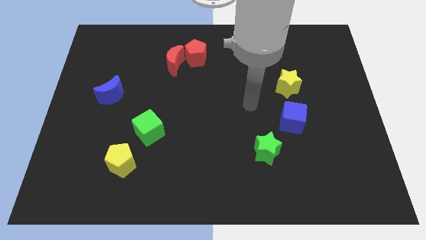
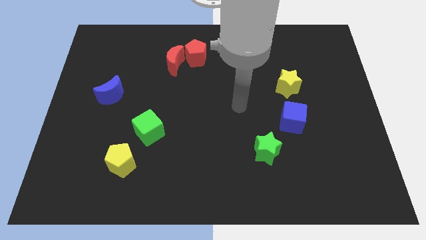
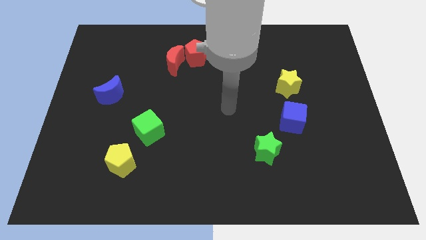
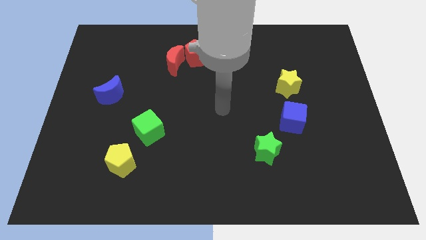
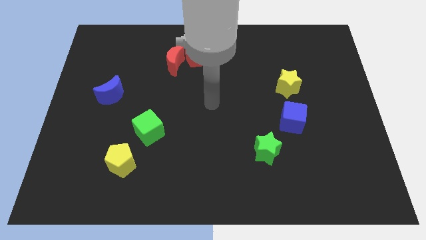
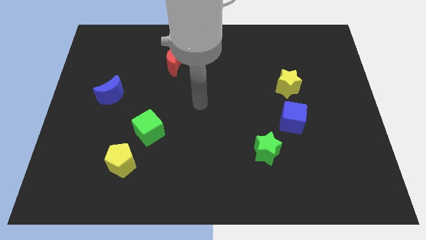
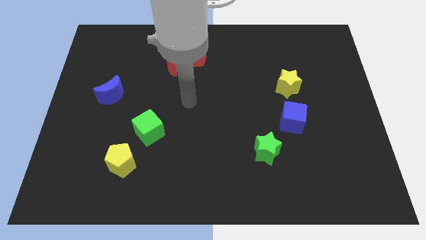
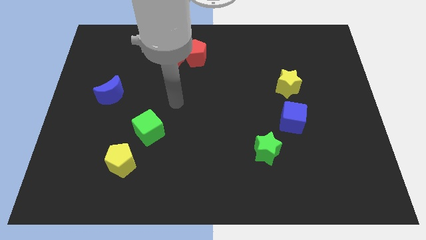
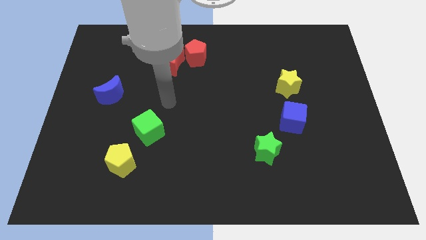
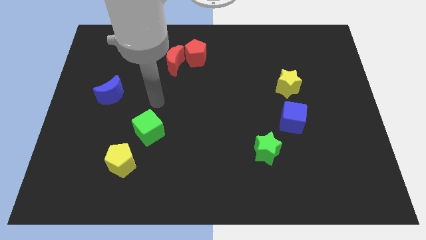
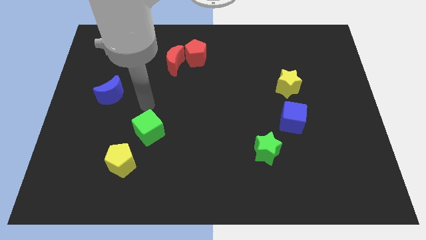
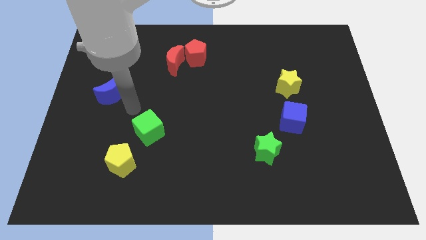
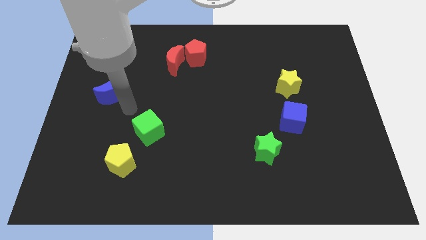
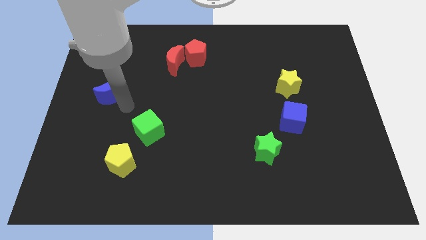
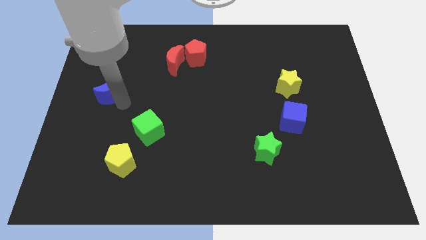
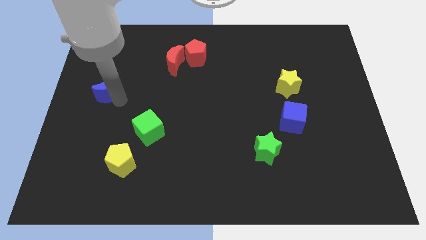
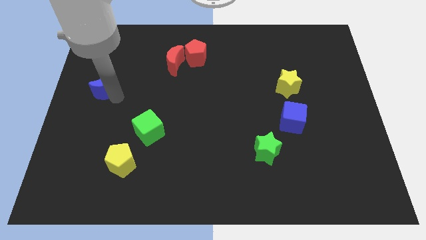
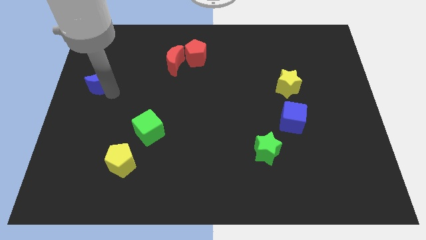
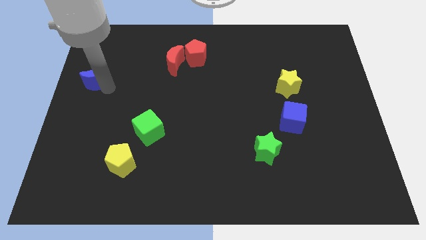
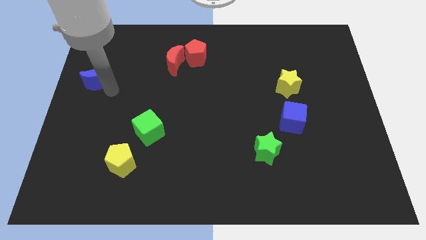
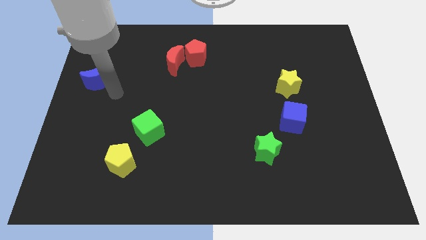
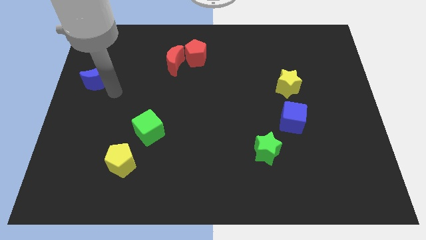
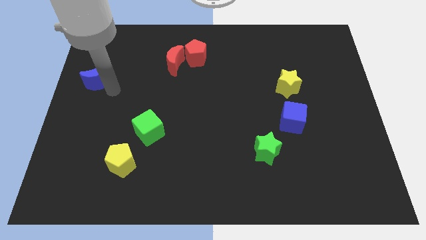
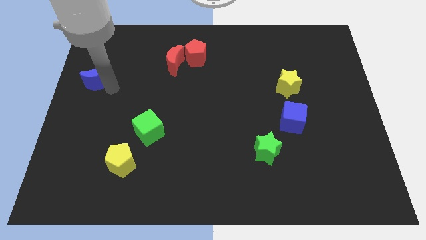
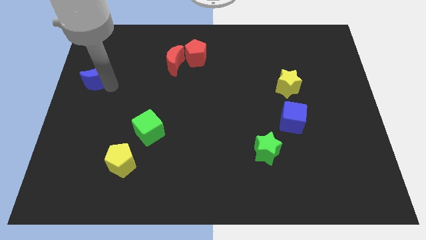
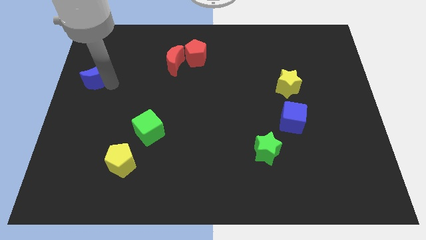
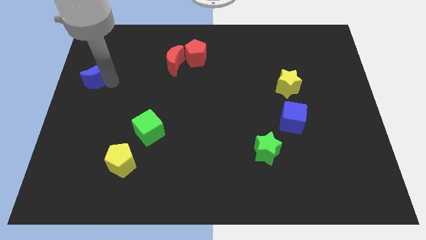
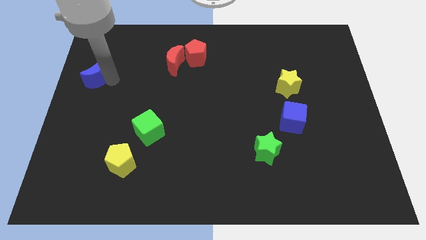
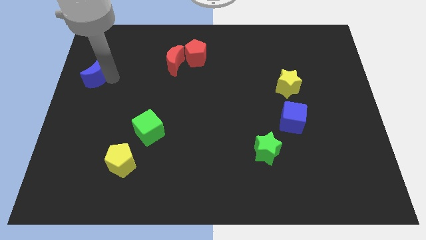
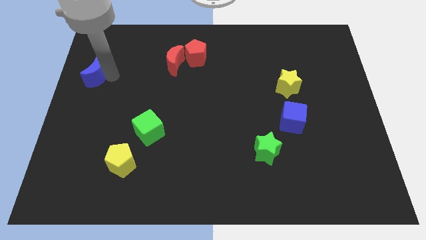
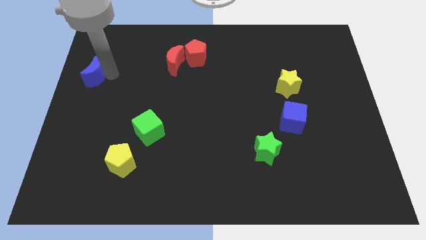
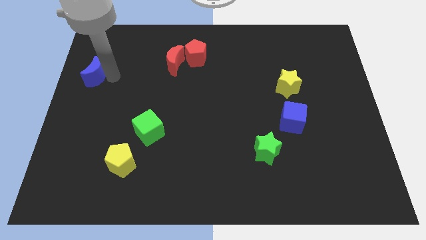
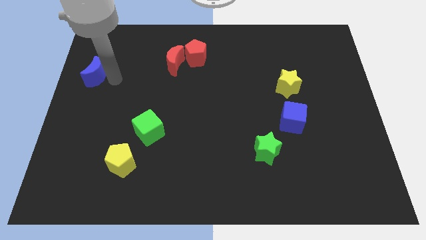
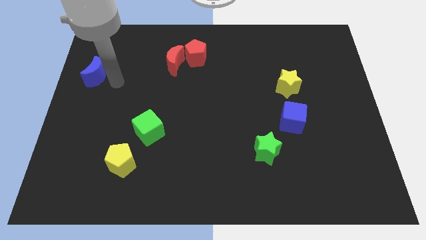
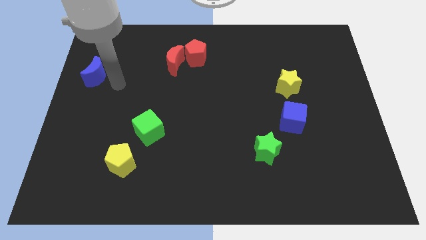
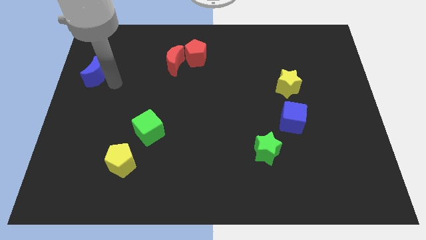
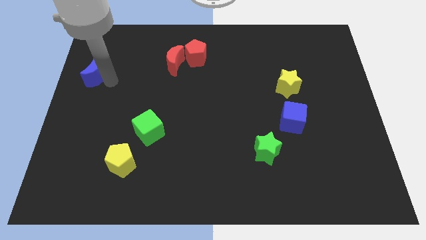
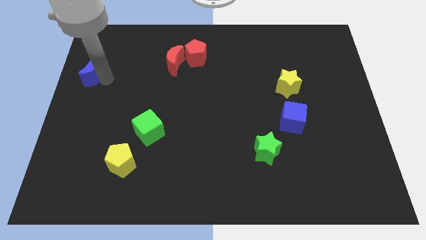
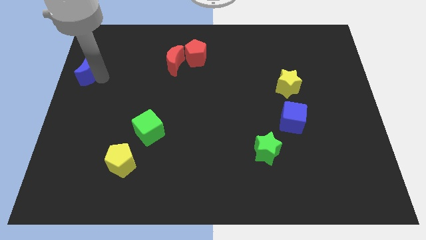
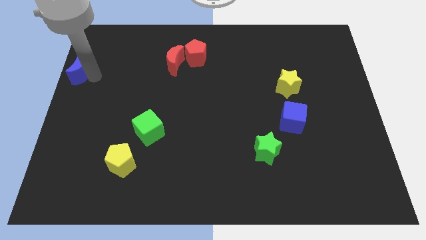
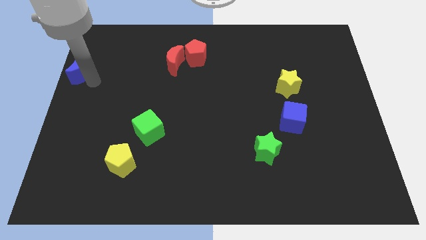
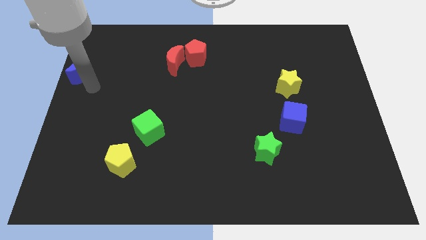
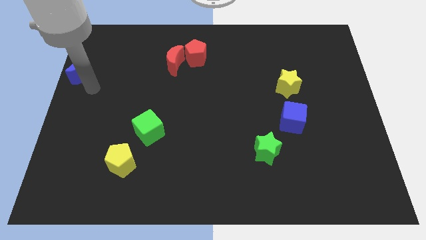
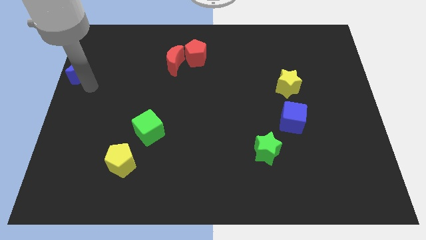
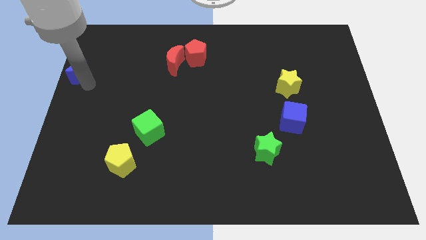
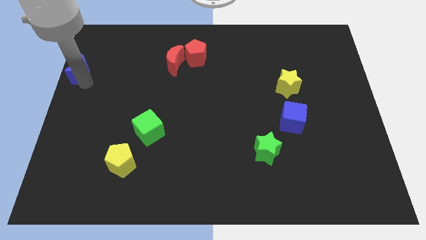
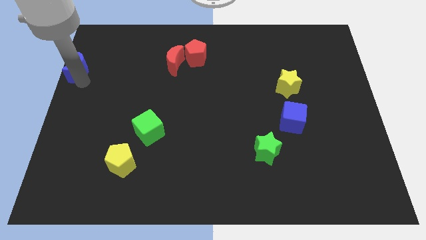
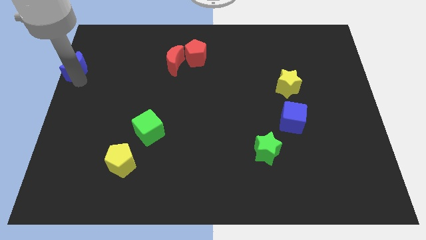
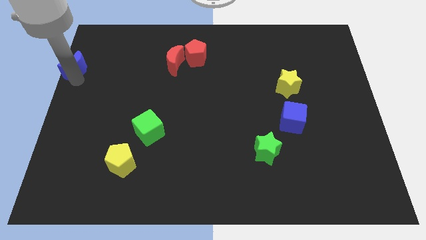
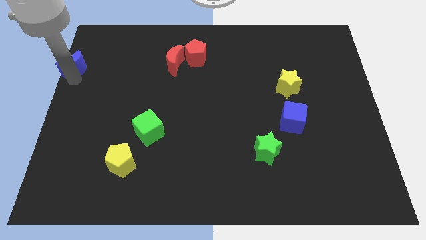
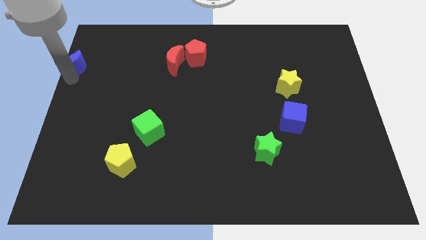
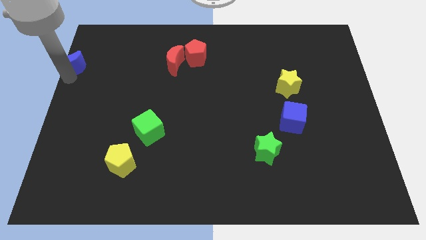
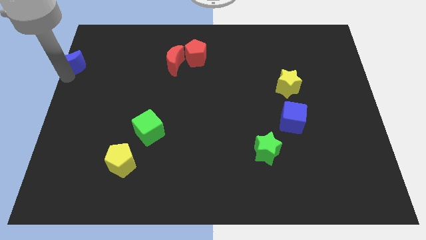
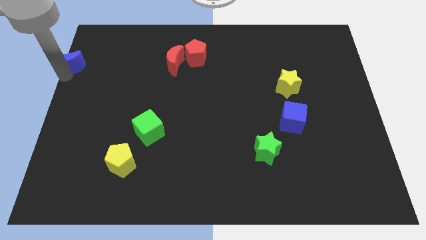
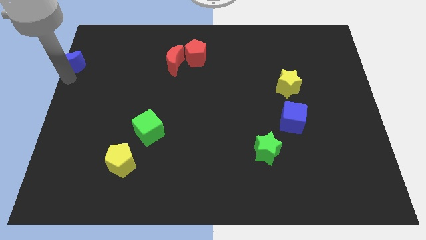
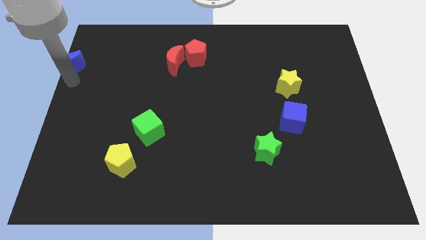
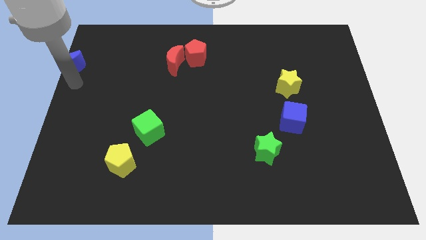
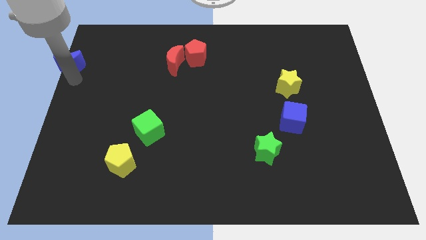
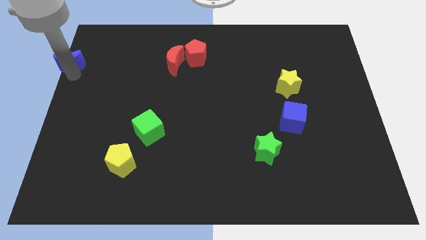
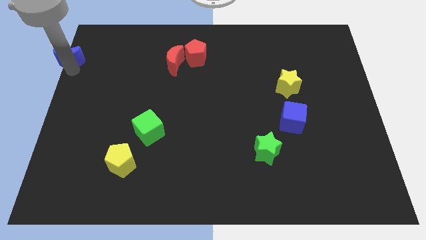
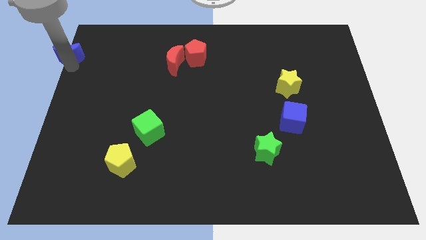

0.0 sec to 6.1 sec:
move the blue moon to the top left

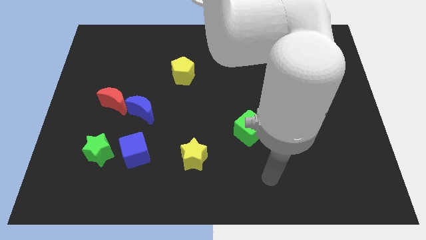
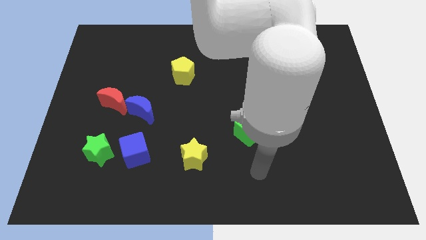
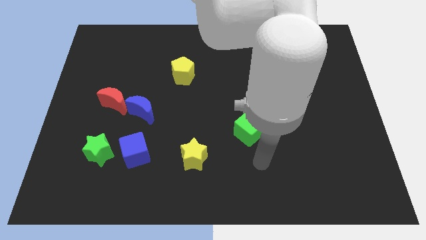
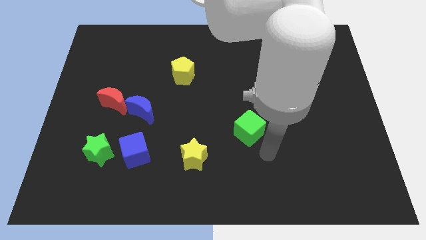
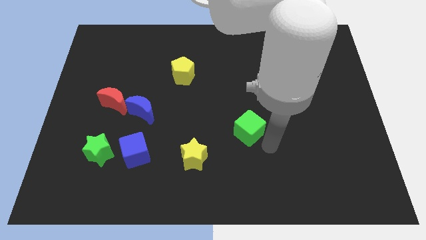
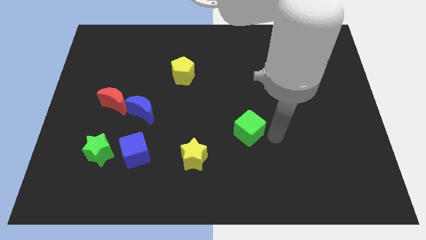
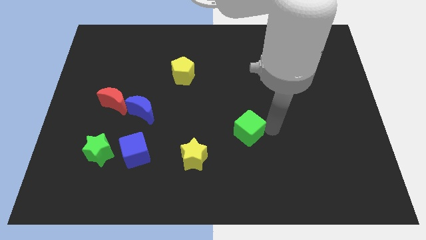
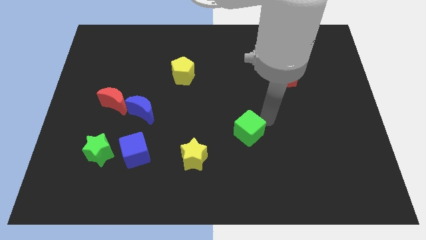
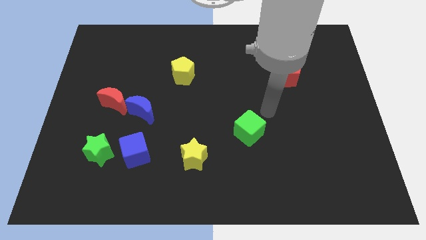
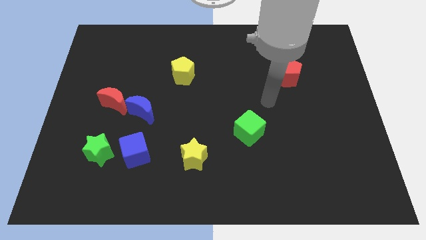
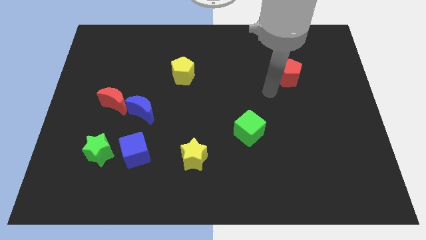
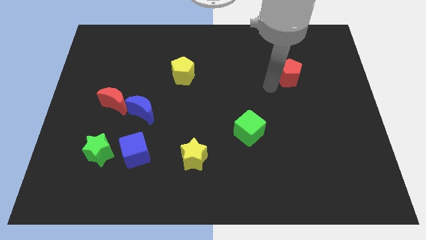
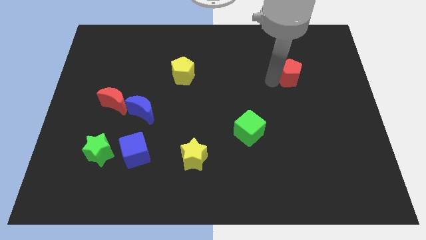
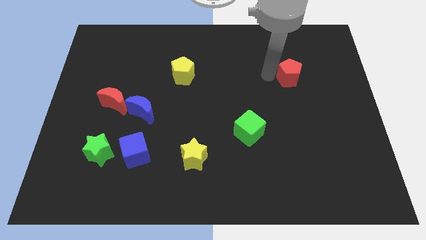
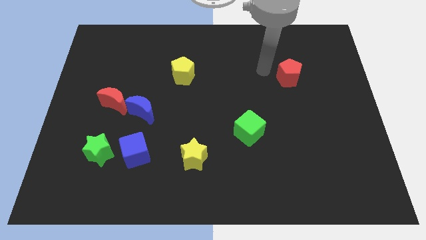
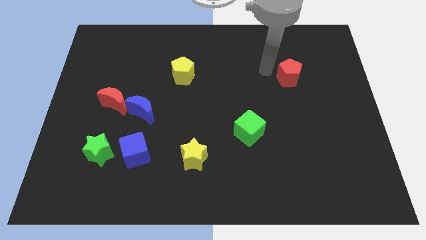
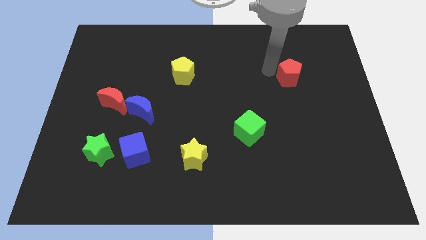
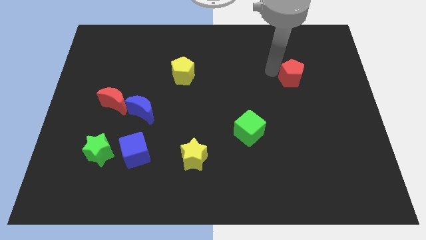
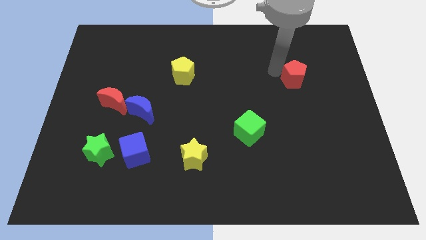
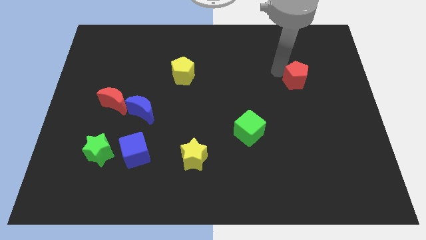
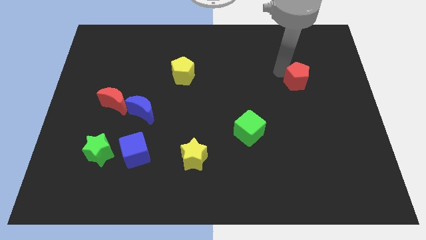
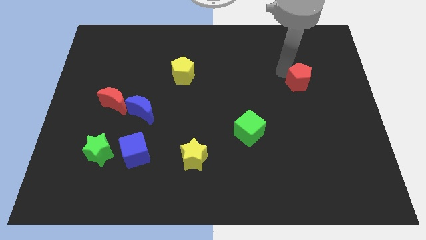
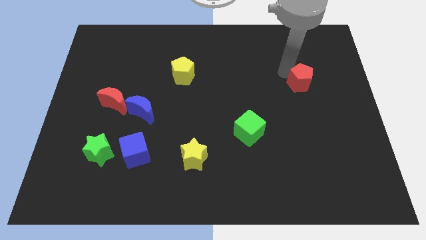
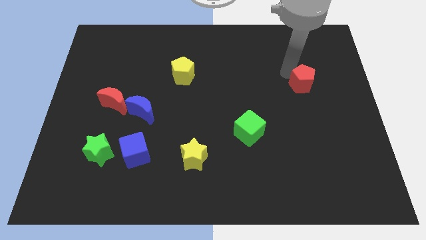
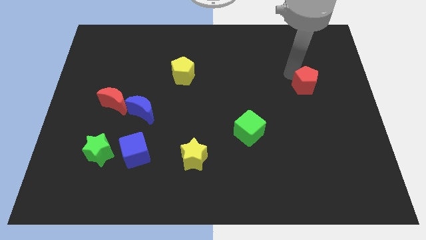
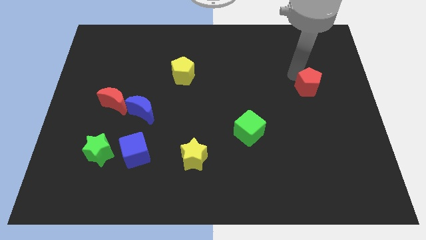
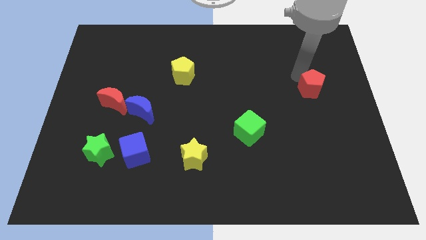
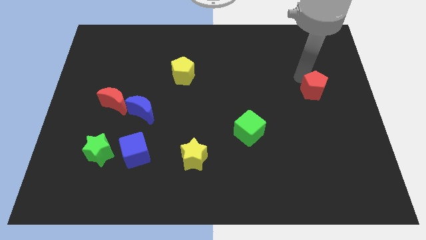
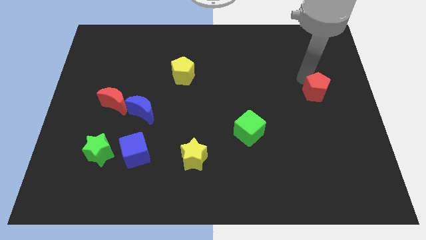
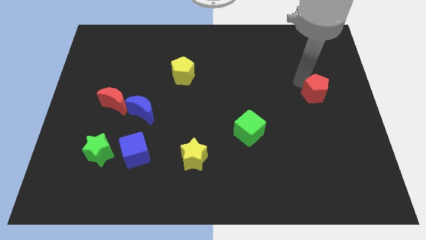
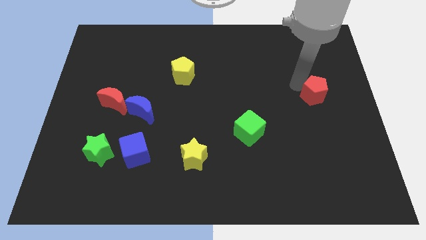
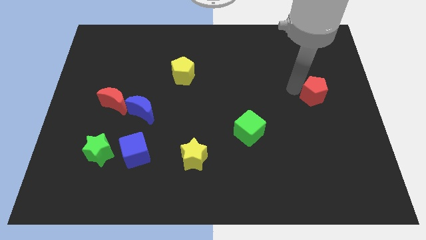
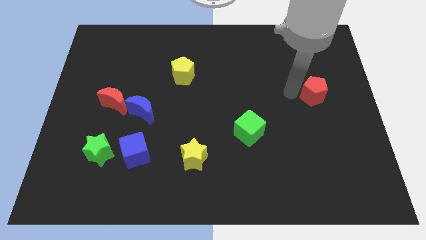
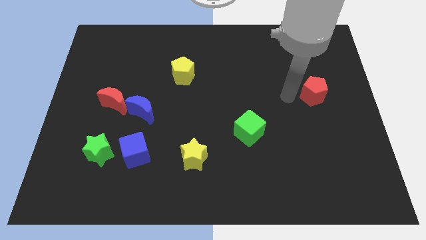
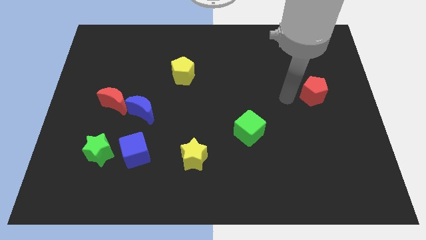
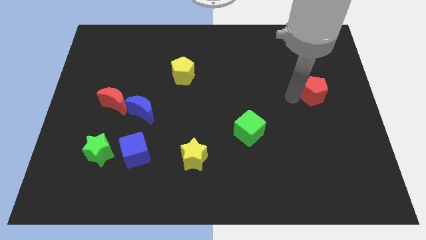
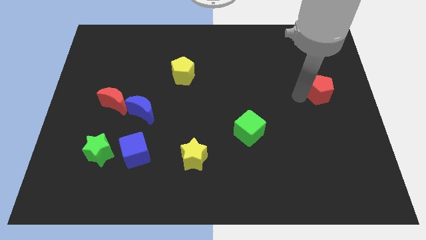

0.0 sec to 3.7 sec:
push the red pentagon to the right side of the board
